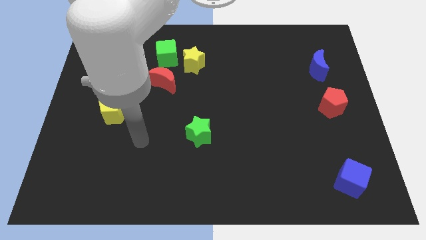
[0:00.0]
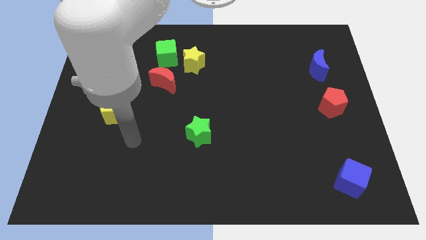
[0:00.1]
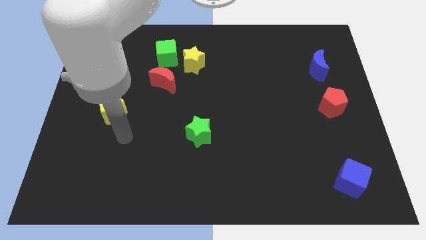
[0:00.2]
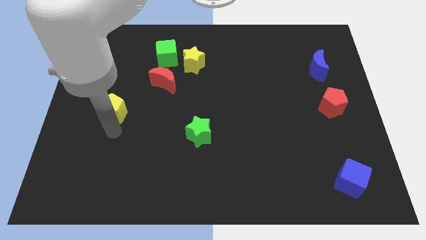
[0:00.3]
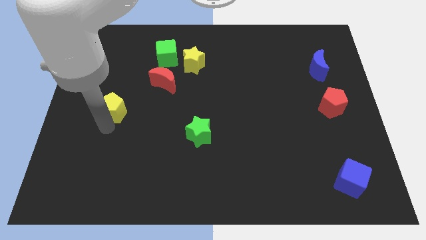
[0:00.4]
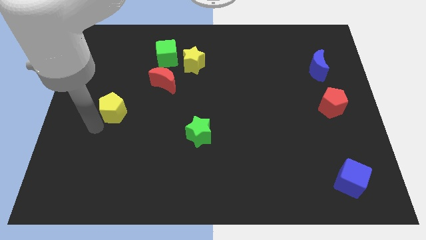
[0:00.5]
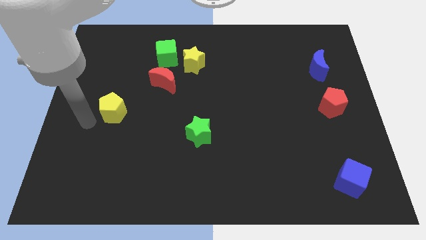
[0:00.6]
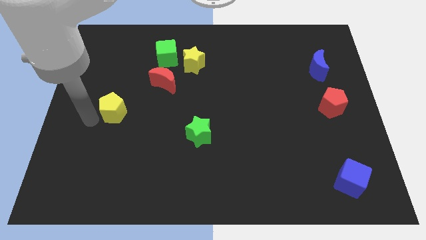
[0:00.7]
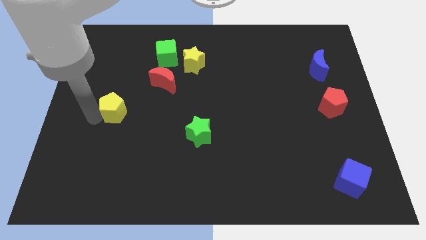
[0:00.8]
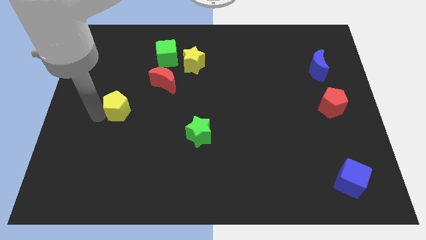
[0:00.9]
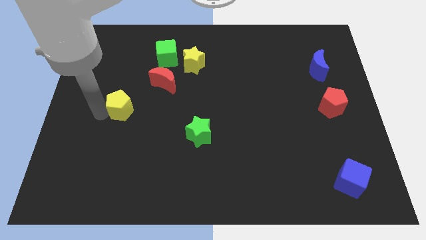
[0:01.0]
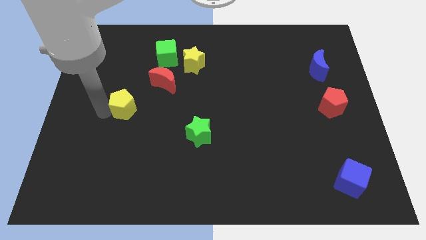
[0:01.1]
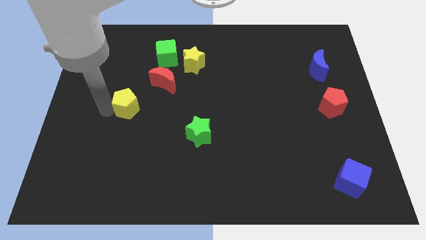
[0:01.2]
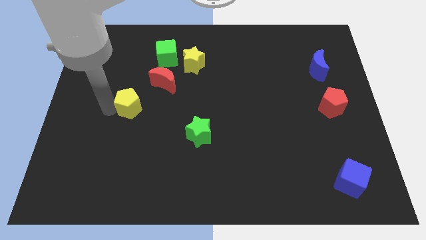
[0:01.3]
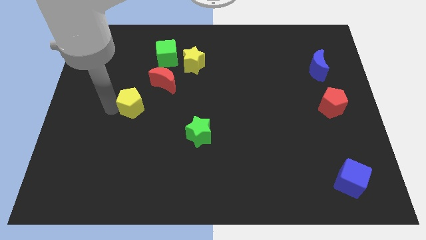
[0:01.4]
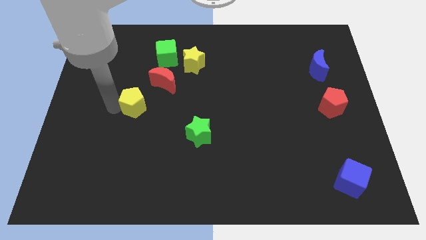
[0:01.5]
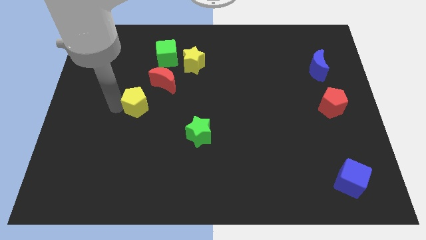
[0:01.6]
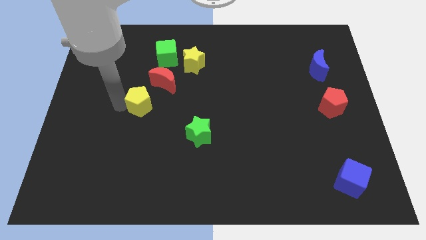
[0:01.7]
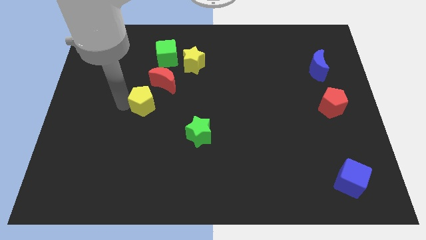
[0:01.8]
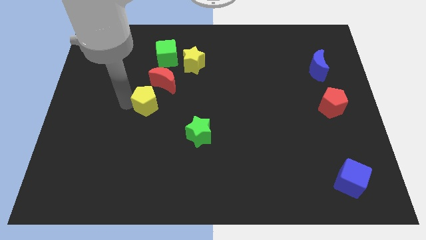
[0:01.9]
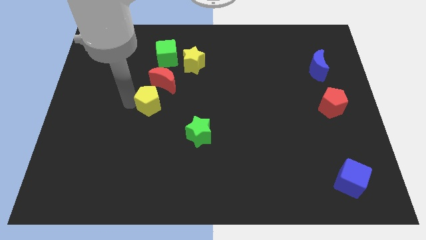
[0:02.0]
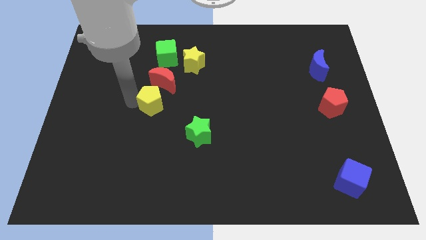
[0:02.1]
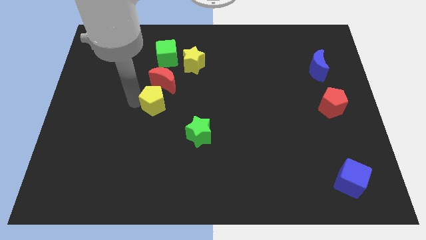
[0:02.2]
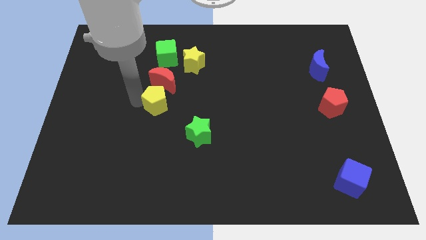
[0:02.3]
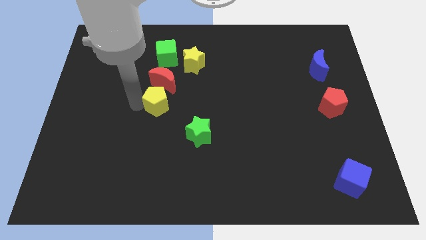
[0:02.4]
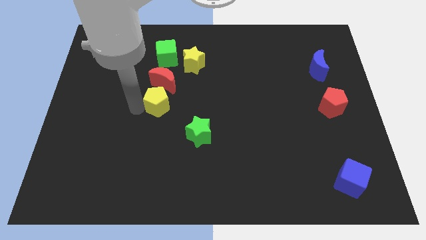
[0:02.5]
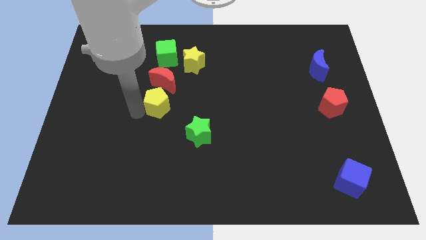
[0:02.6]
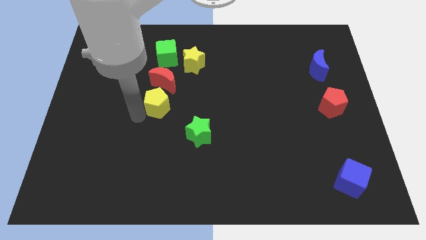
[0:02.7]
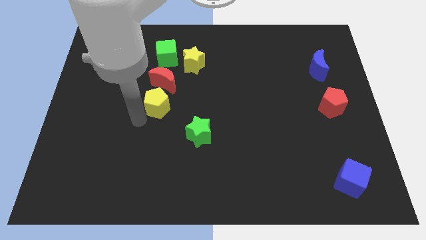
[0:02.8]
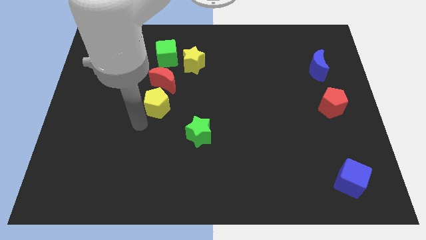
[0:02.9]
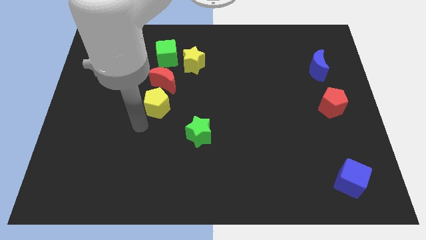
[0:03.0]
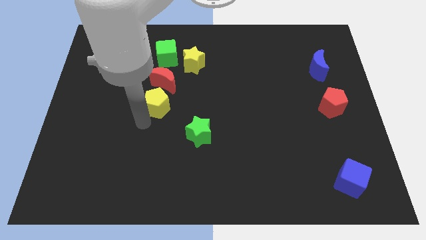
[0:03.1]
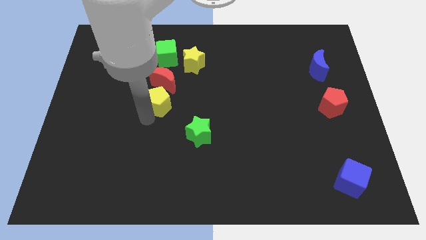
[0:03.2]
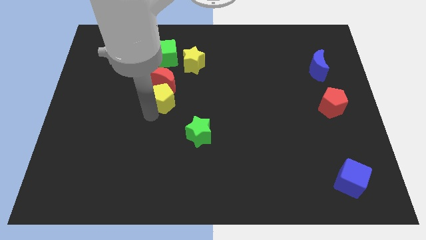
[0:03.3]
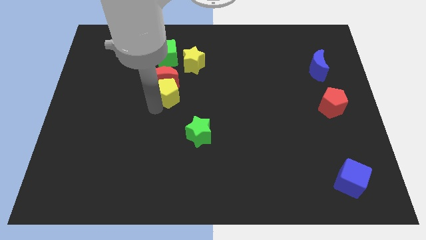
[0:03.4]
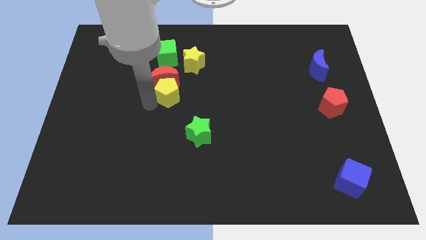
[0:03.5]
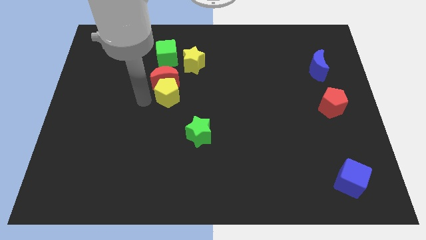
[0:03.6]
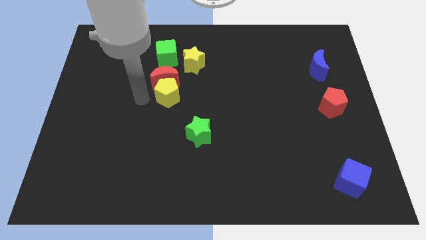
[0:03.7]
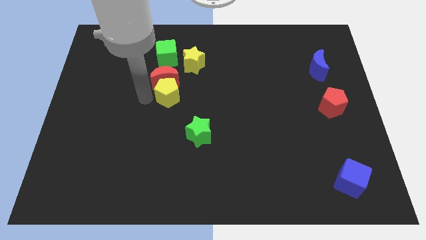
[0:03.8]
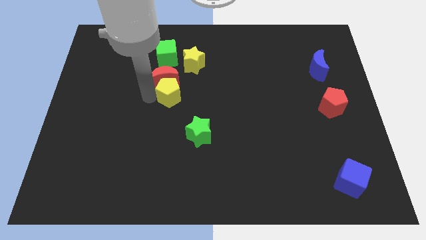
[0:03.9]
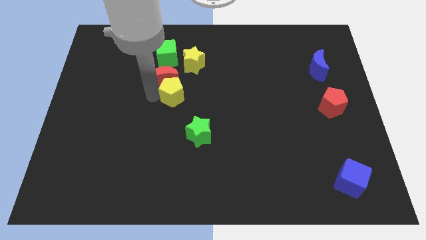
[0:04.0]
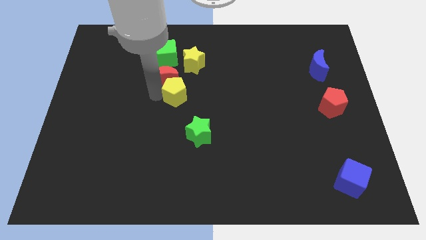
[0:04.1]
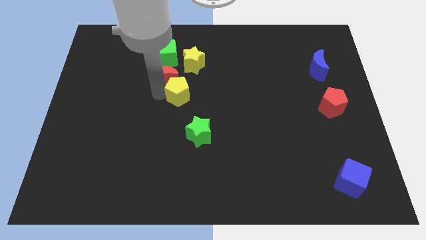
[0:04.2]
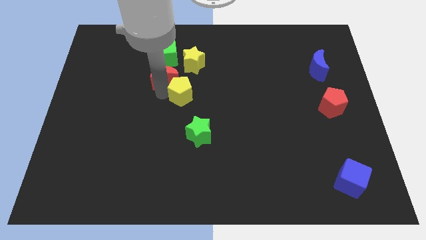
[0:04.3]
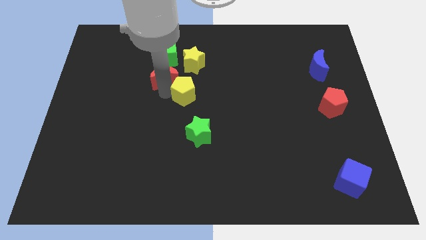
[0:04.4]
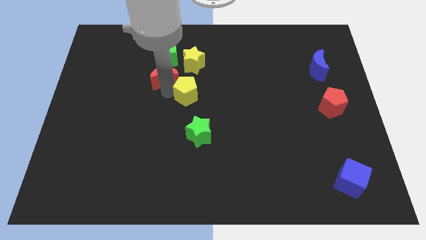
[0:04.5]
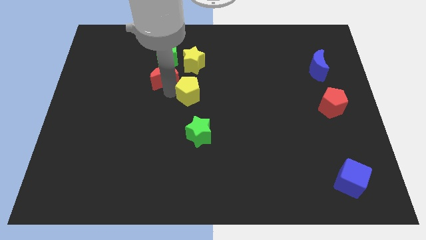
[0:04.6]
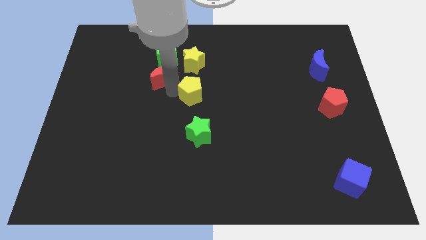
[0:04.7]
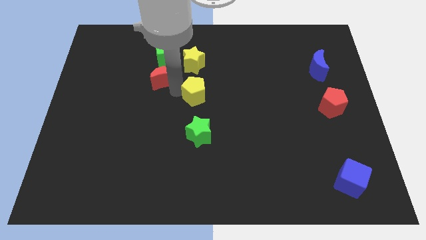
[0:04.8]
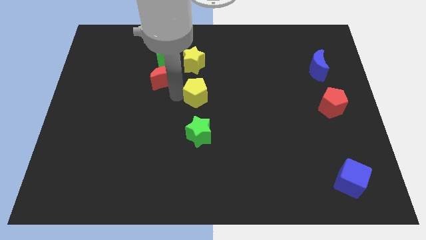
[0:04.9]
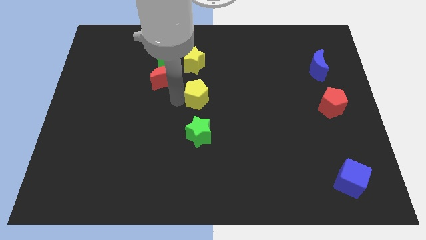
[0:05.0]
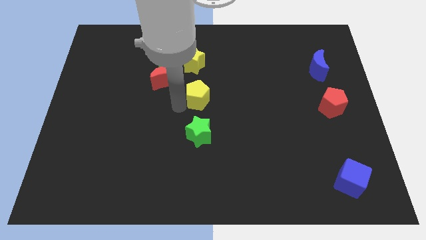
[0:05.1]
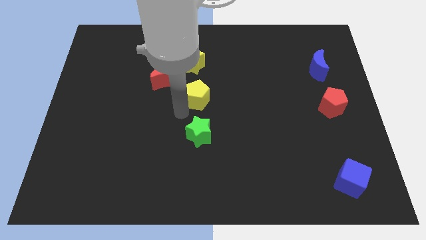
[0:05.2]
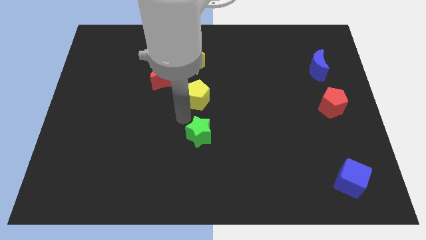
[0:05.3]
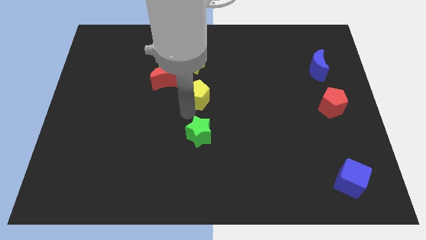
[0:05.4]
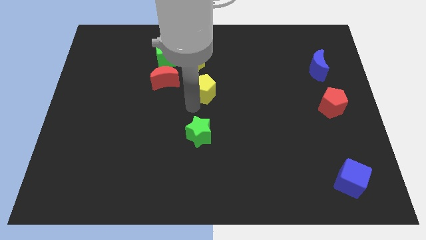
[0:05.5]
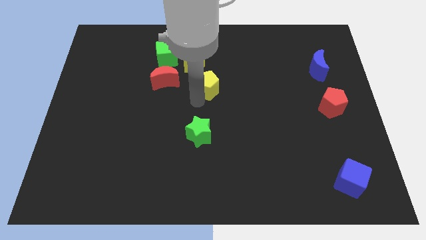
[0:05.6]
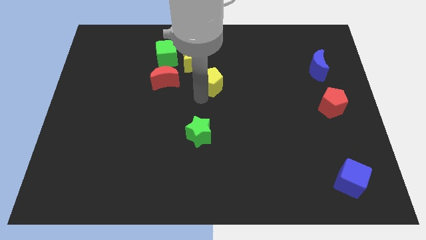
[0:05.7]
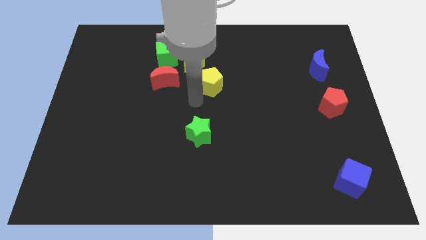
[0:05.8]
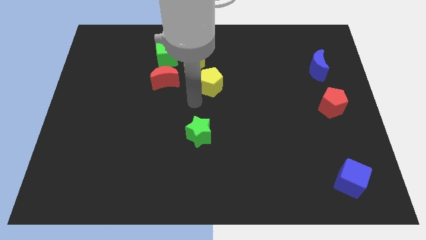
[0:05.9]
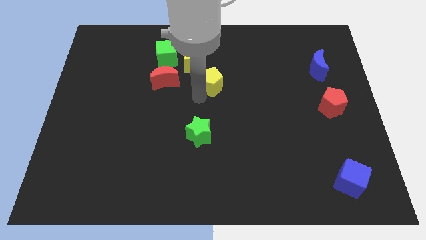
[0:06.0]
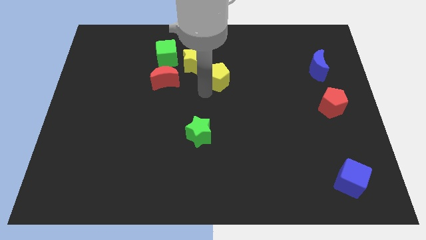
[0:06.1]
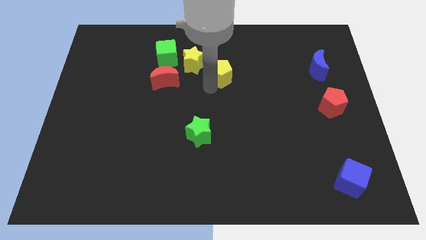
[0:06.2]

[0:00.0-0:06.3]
move the yellow pentagon just right of the yellow star
